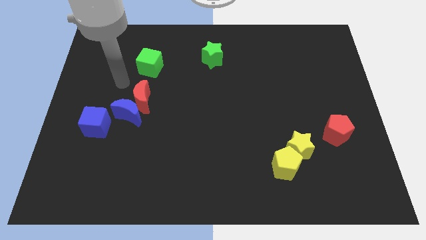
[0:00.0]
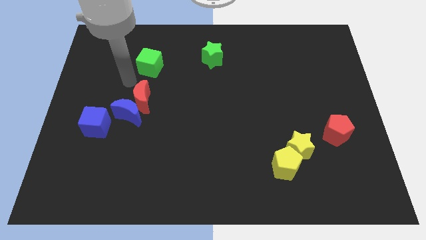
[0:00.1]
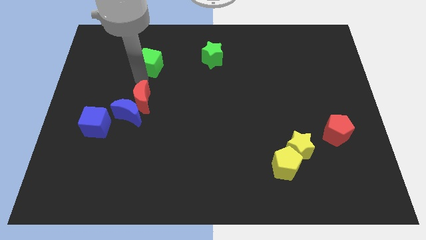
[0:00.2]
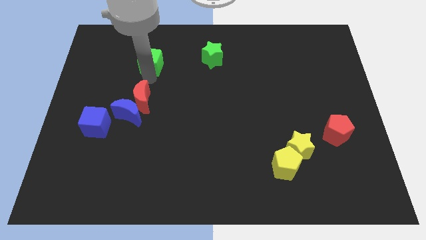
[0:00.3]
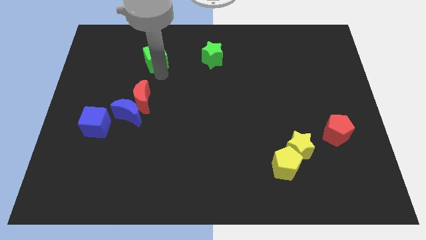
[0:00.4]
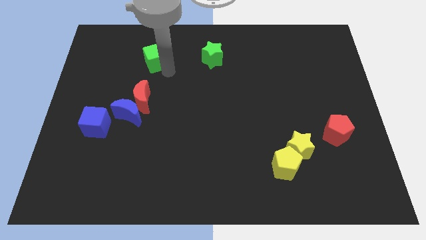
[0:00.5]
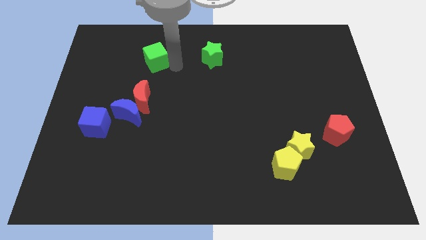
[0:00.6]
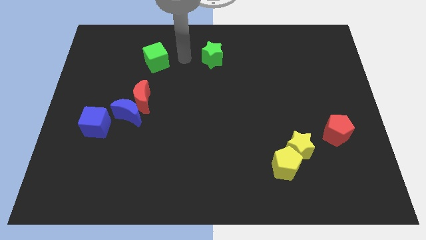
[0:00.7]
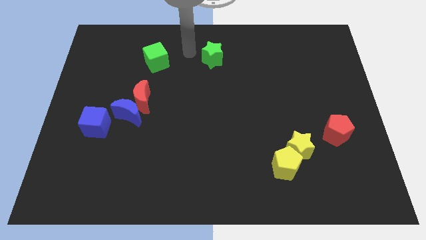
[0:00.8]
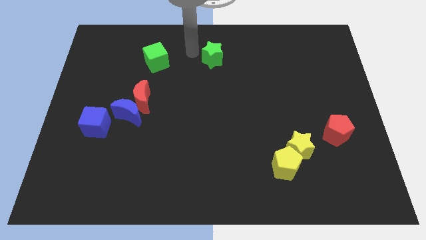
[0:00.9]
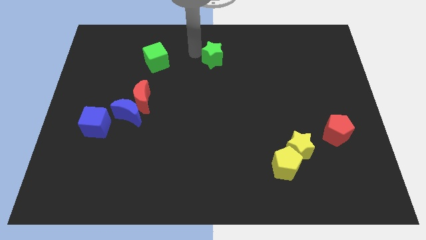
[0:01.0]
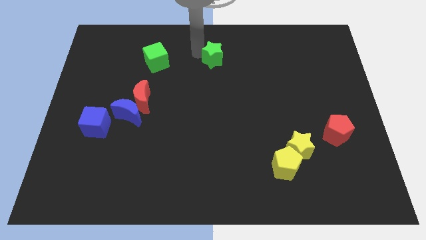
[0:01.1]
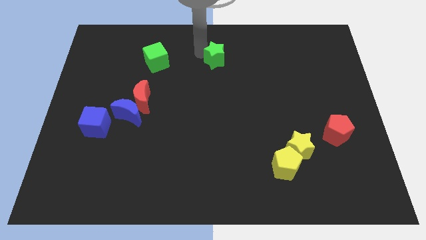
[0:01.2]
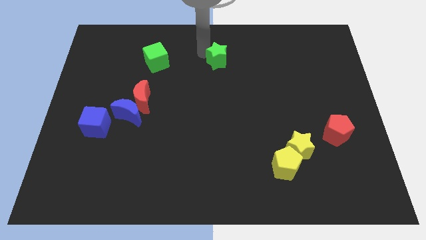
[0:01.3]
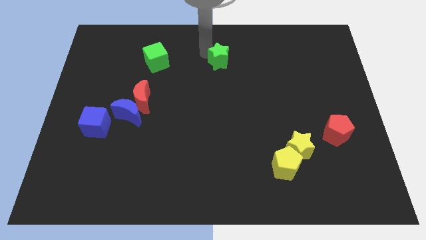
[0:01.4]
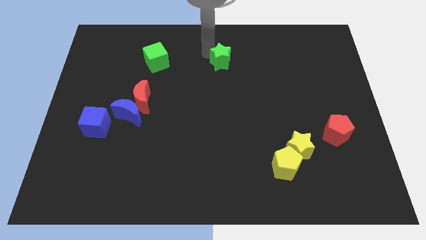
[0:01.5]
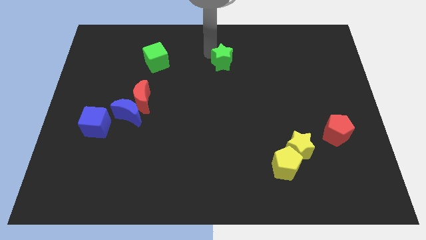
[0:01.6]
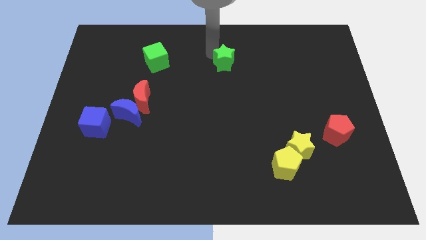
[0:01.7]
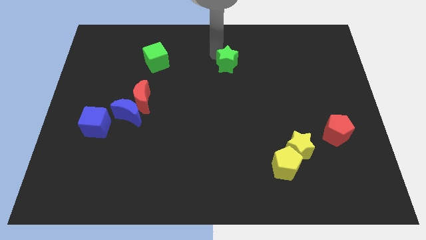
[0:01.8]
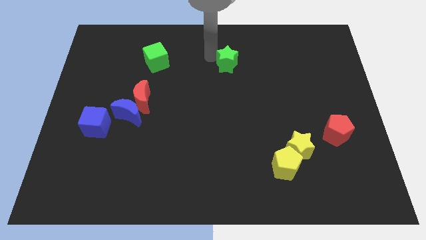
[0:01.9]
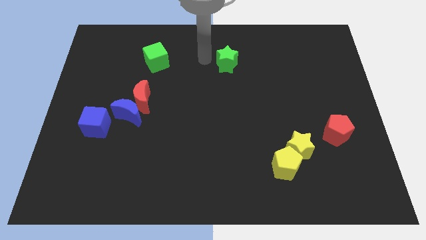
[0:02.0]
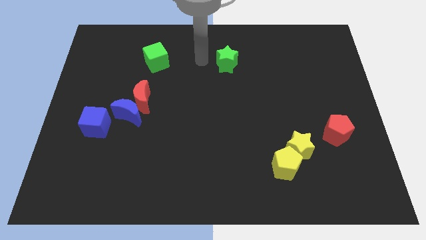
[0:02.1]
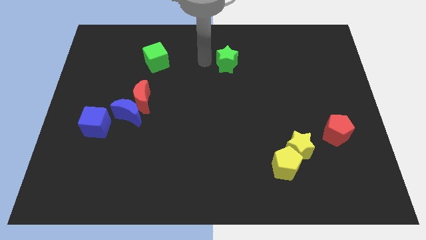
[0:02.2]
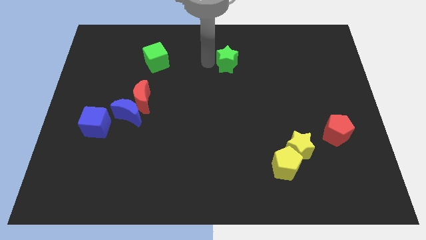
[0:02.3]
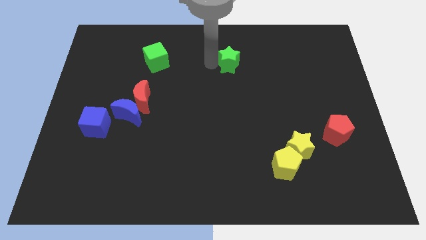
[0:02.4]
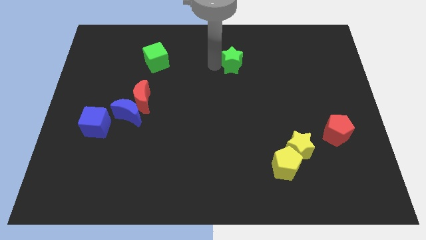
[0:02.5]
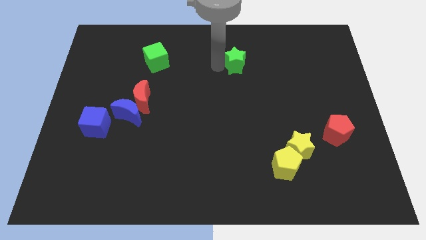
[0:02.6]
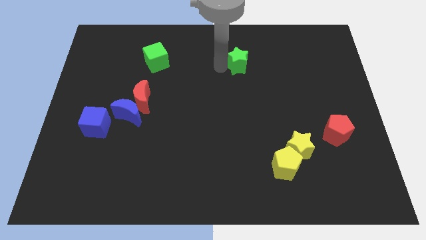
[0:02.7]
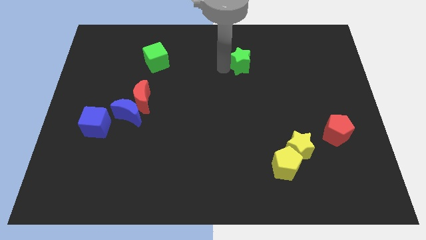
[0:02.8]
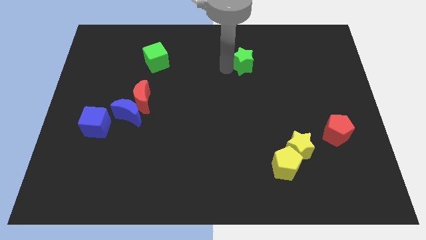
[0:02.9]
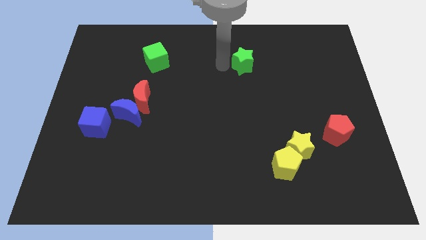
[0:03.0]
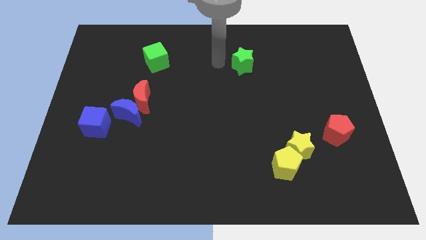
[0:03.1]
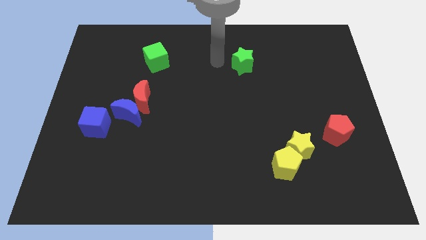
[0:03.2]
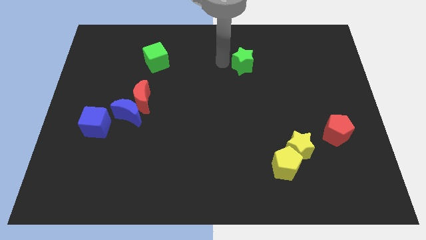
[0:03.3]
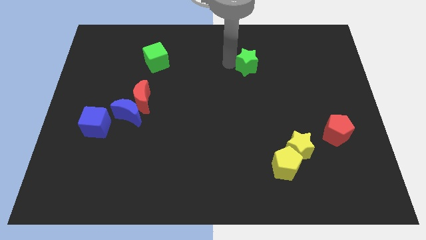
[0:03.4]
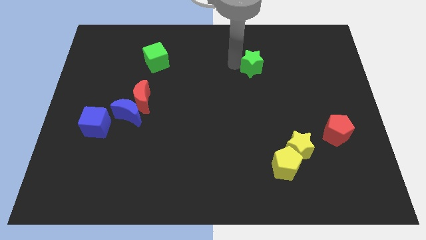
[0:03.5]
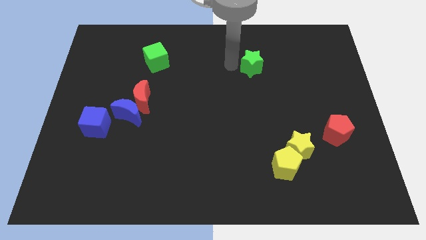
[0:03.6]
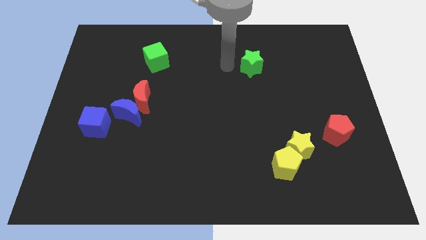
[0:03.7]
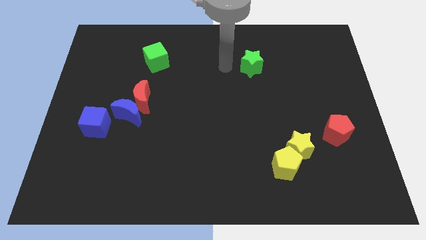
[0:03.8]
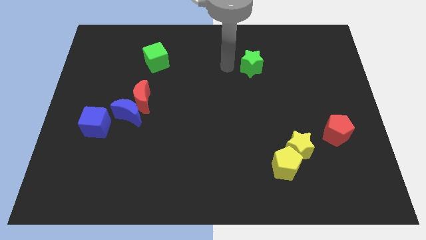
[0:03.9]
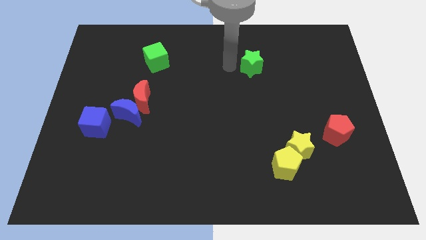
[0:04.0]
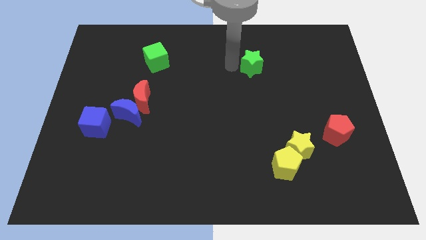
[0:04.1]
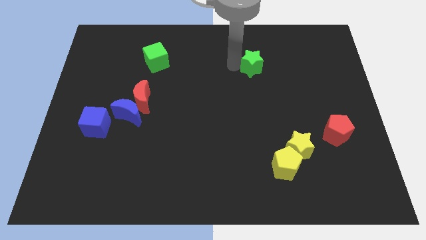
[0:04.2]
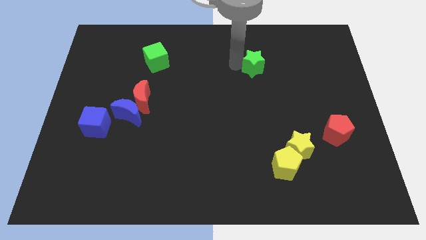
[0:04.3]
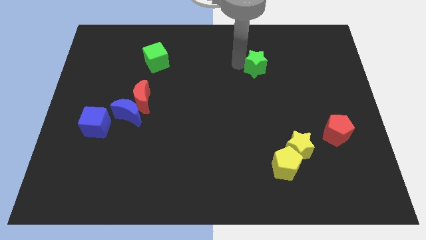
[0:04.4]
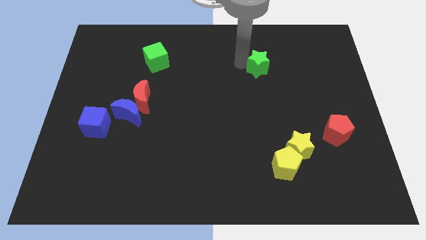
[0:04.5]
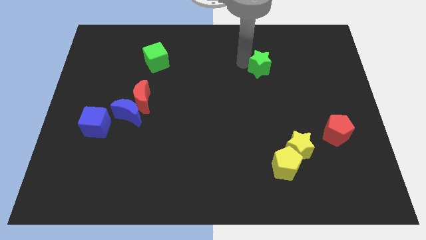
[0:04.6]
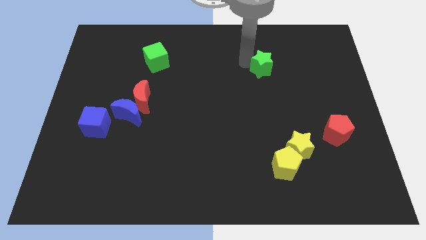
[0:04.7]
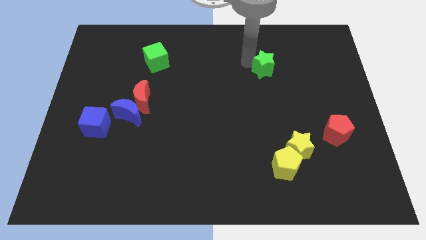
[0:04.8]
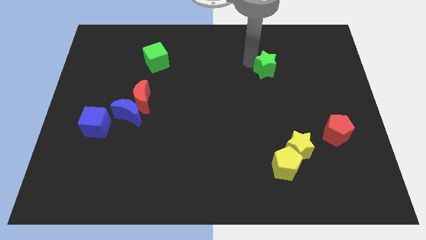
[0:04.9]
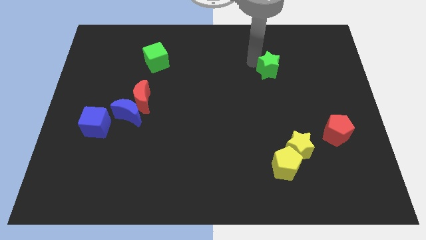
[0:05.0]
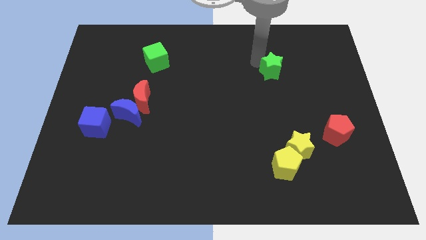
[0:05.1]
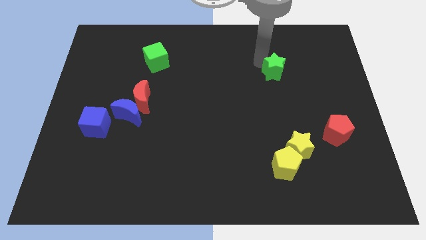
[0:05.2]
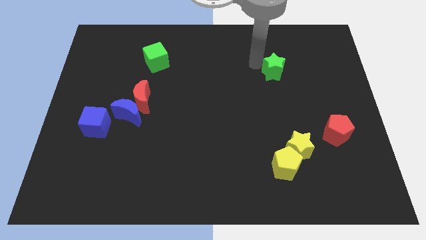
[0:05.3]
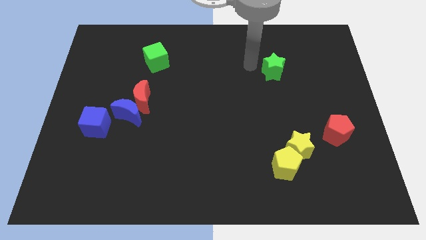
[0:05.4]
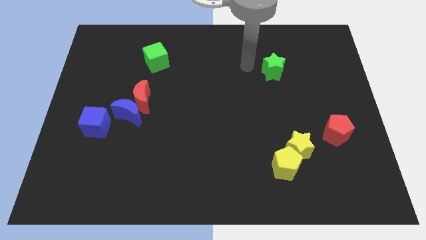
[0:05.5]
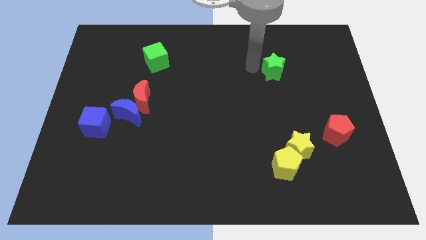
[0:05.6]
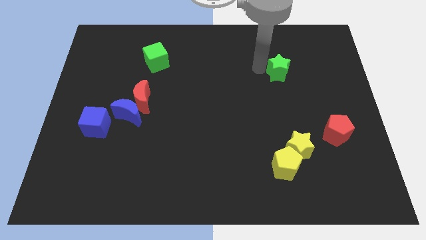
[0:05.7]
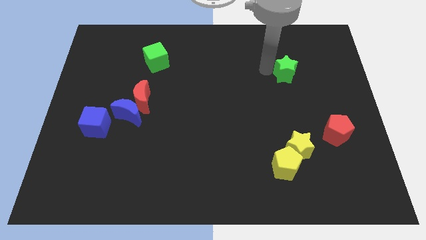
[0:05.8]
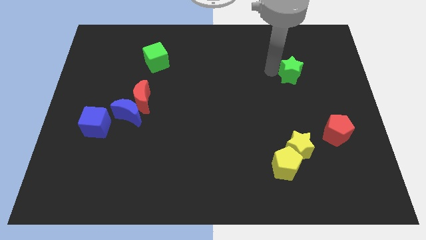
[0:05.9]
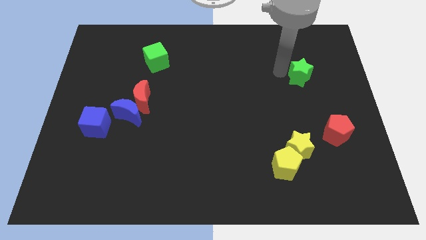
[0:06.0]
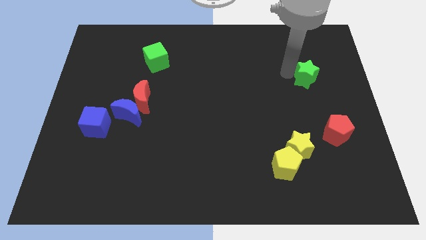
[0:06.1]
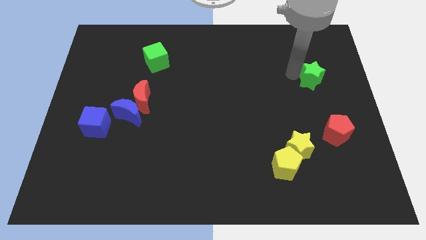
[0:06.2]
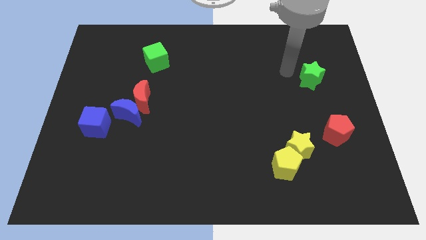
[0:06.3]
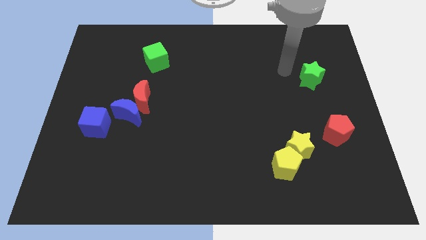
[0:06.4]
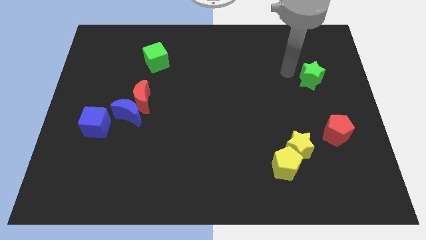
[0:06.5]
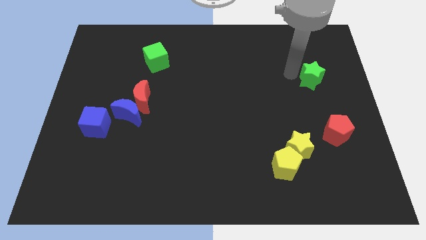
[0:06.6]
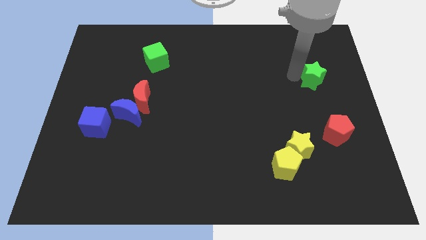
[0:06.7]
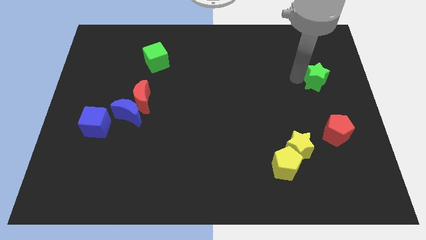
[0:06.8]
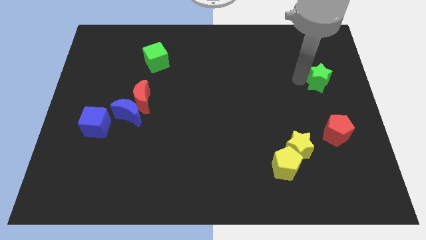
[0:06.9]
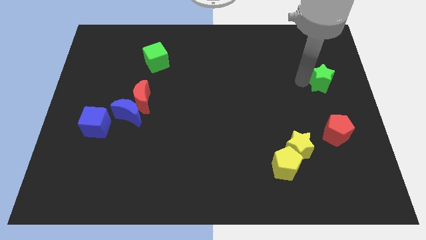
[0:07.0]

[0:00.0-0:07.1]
slide the green star to the center right
